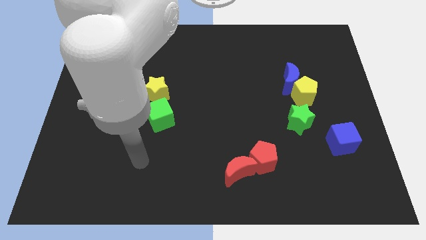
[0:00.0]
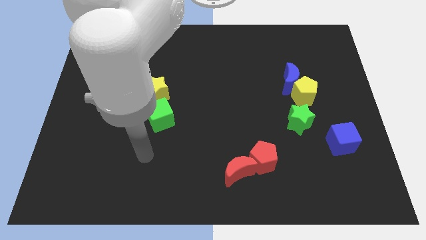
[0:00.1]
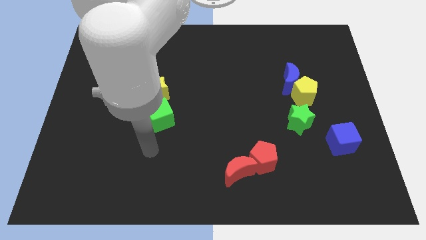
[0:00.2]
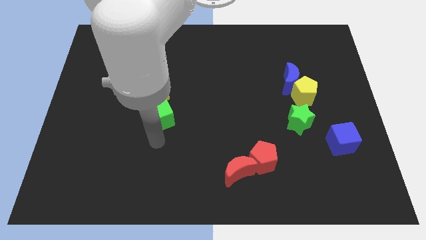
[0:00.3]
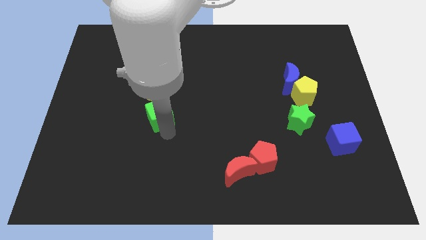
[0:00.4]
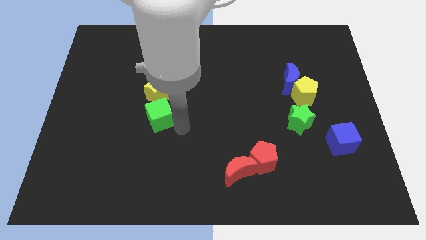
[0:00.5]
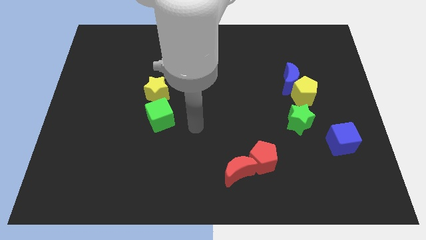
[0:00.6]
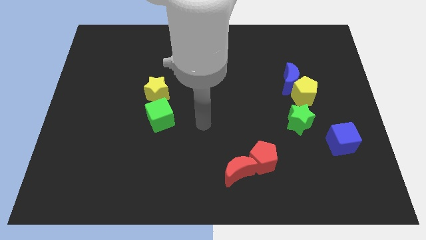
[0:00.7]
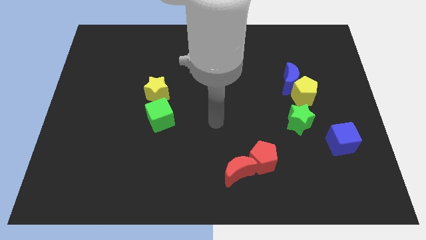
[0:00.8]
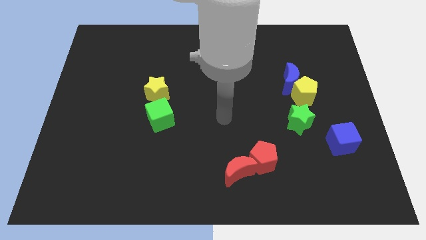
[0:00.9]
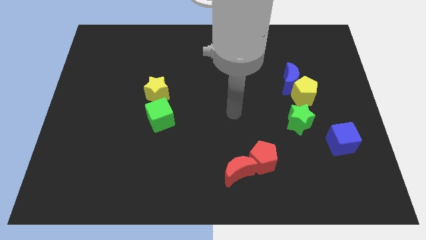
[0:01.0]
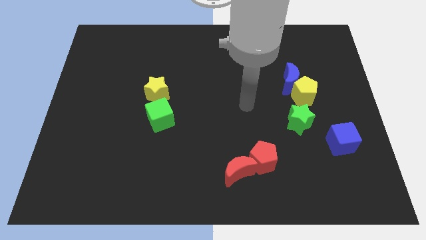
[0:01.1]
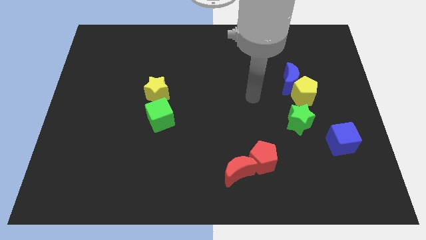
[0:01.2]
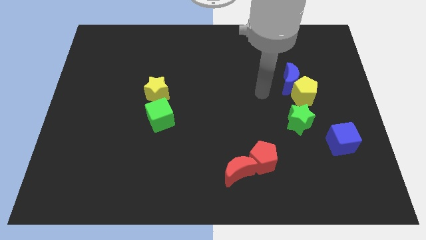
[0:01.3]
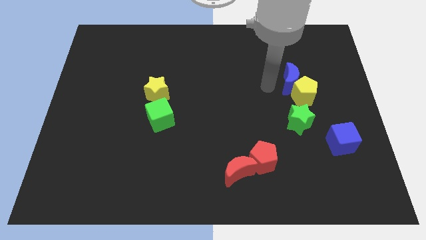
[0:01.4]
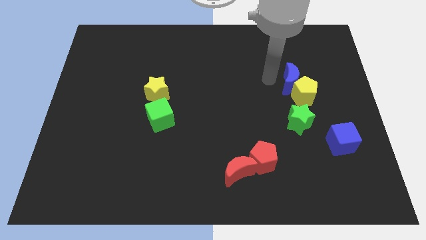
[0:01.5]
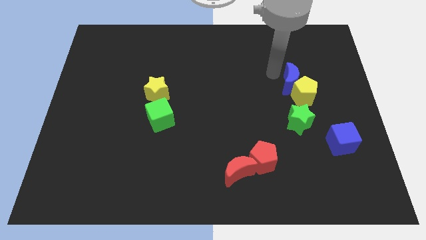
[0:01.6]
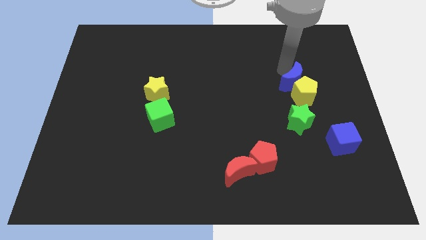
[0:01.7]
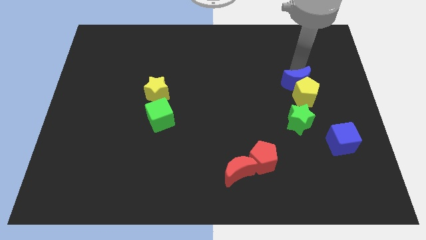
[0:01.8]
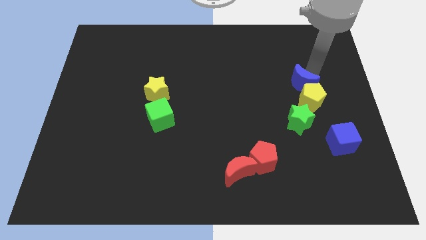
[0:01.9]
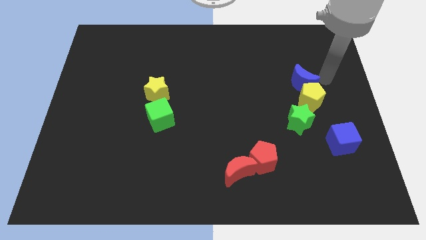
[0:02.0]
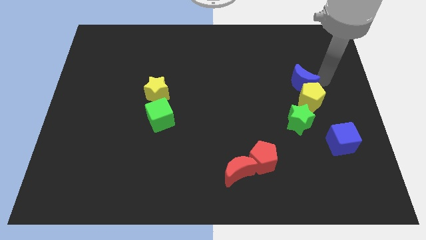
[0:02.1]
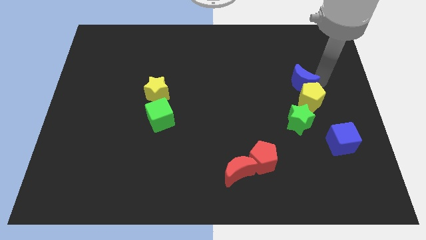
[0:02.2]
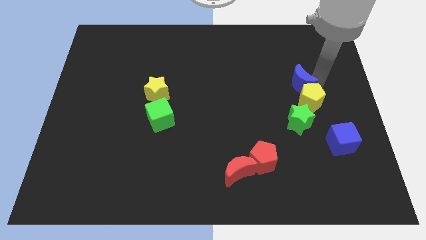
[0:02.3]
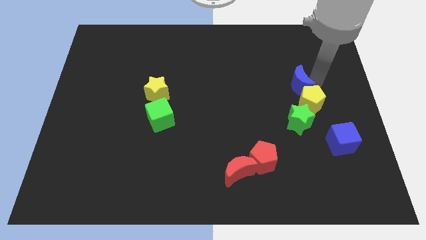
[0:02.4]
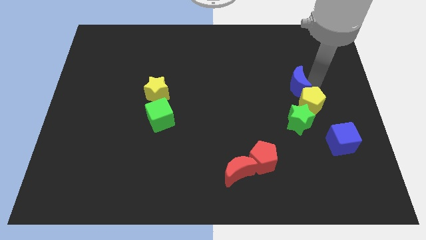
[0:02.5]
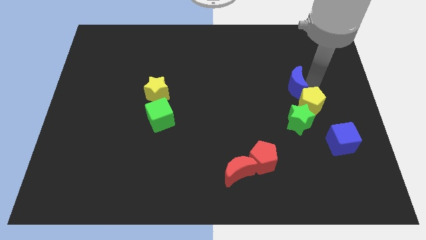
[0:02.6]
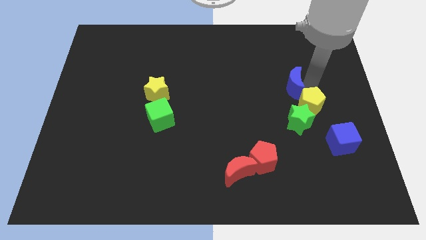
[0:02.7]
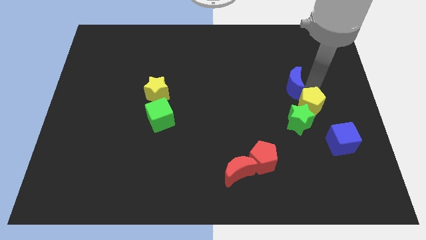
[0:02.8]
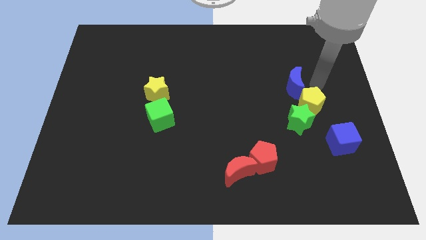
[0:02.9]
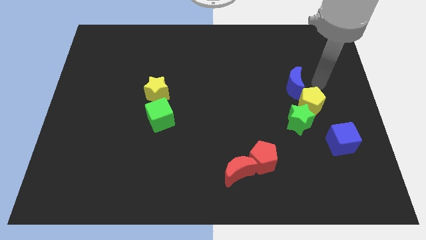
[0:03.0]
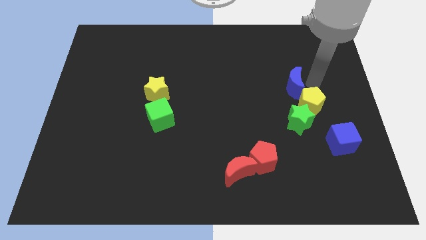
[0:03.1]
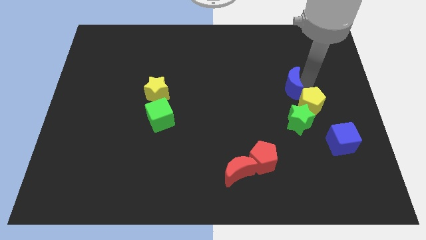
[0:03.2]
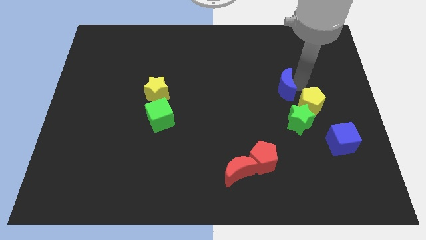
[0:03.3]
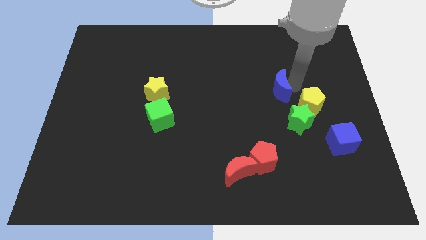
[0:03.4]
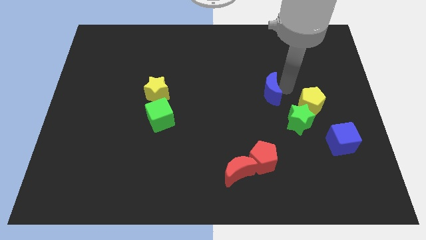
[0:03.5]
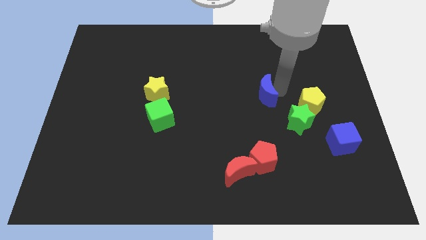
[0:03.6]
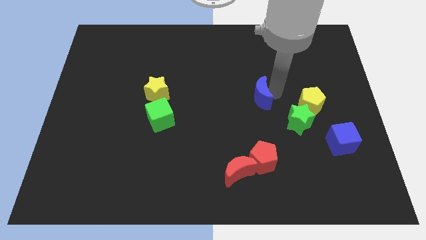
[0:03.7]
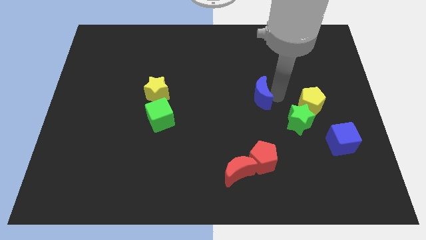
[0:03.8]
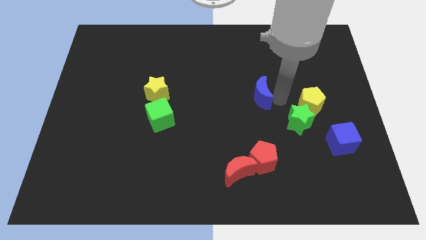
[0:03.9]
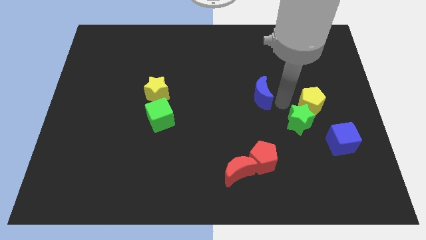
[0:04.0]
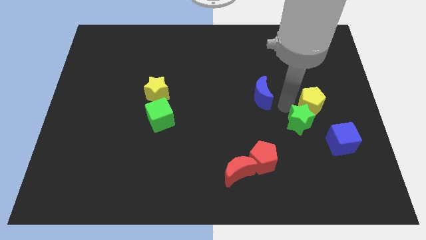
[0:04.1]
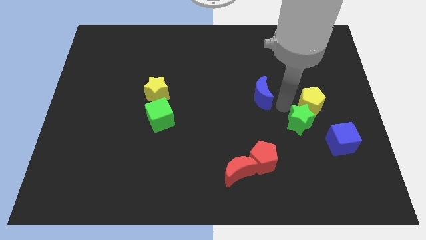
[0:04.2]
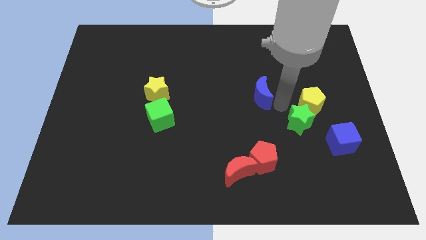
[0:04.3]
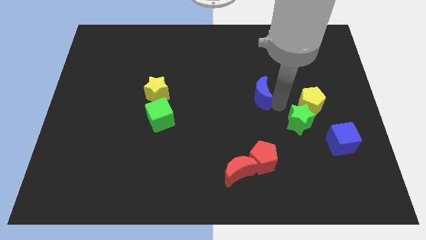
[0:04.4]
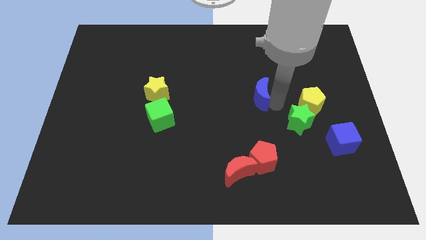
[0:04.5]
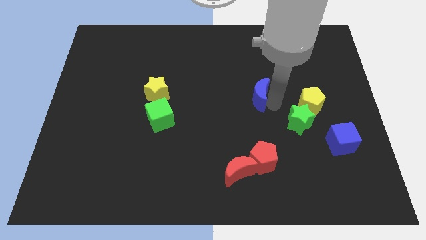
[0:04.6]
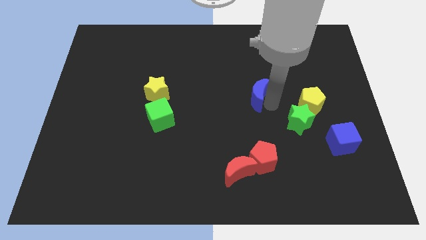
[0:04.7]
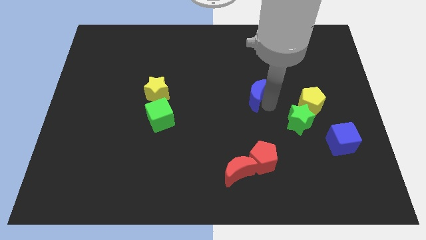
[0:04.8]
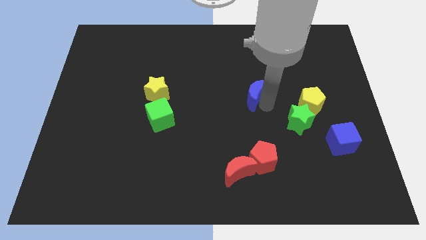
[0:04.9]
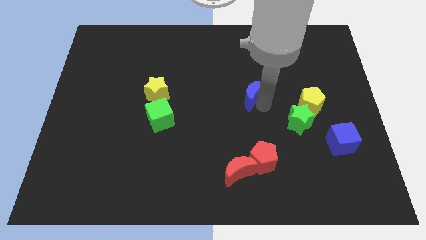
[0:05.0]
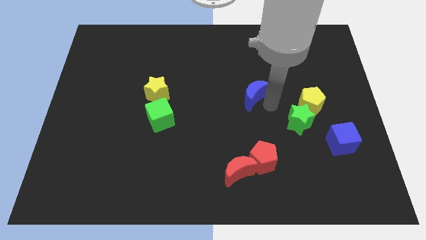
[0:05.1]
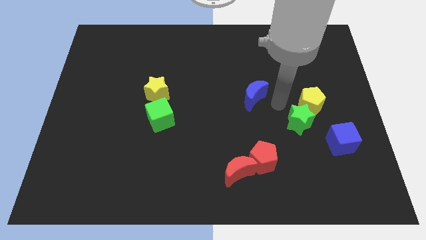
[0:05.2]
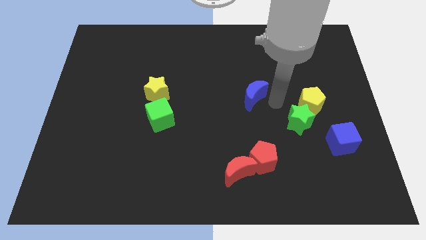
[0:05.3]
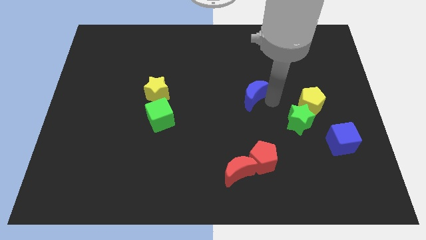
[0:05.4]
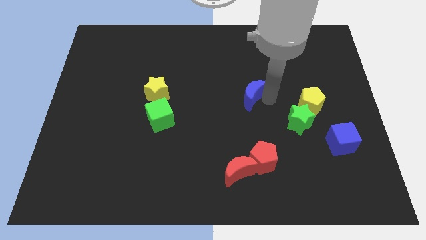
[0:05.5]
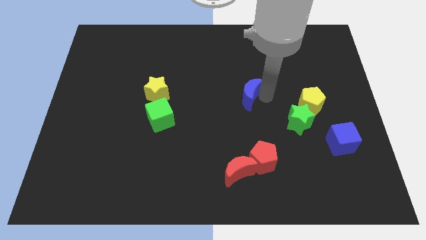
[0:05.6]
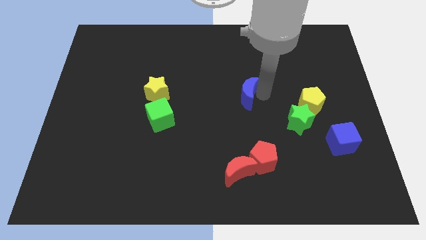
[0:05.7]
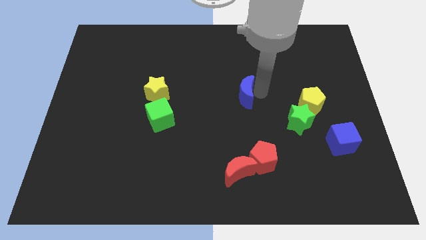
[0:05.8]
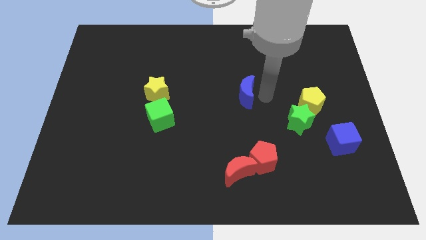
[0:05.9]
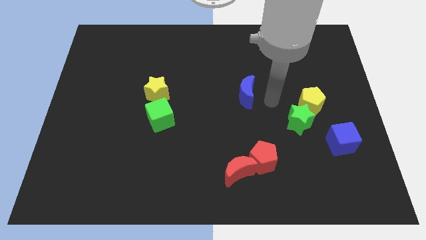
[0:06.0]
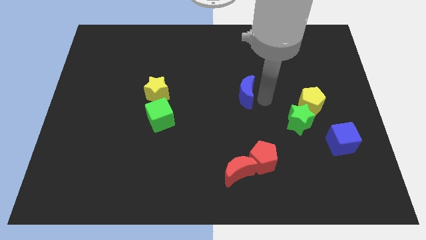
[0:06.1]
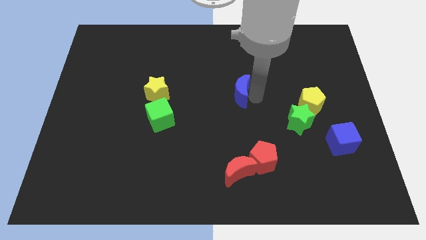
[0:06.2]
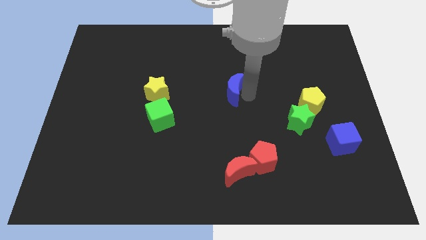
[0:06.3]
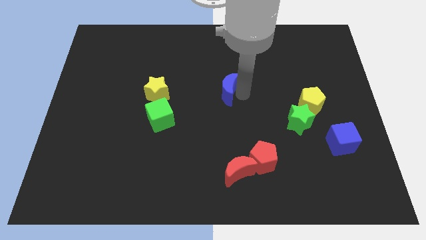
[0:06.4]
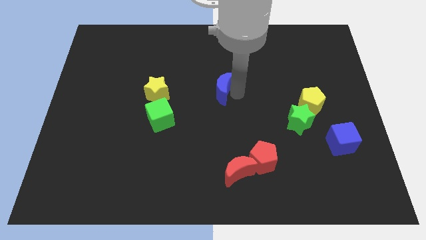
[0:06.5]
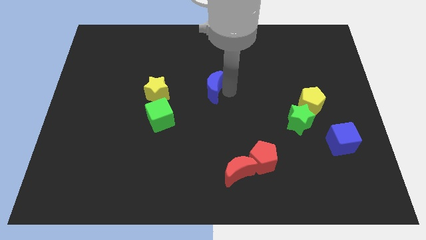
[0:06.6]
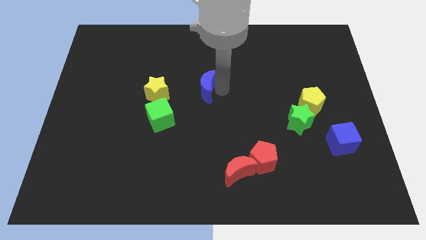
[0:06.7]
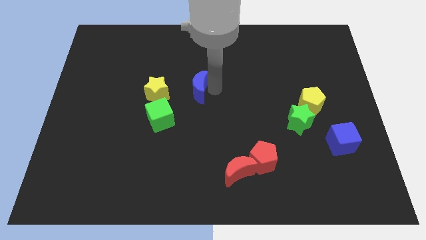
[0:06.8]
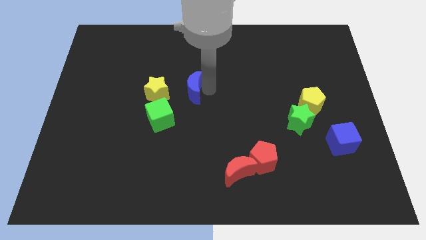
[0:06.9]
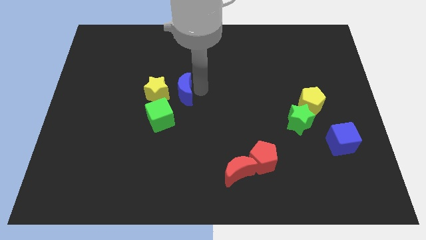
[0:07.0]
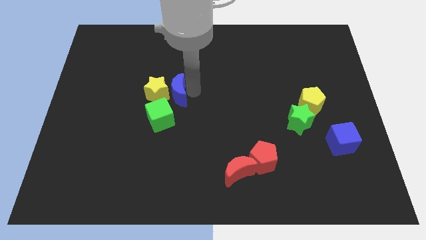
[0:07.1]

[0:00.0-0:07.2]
put the blue moon towards the yellow star

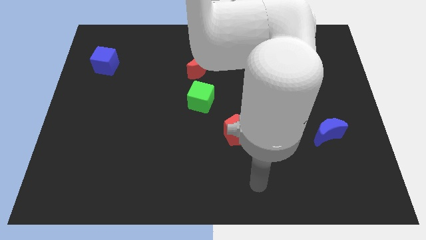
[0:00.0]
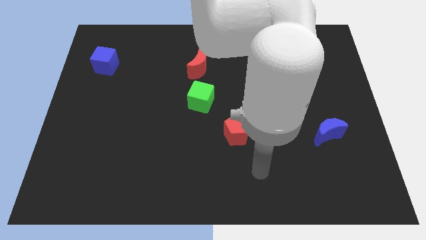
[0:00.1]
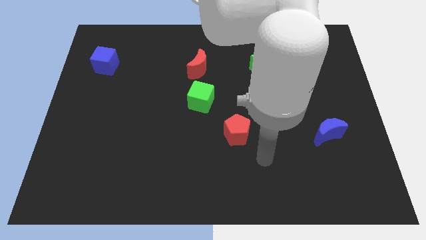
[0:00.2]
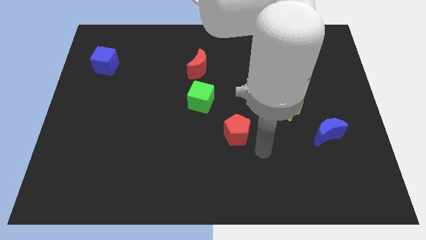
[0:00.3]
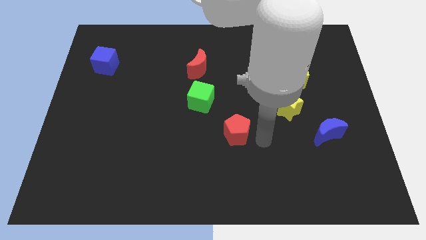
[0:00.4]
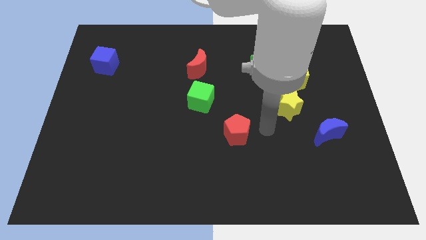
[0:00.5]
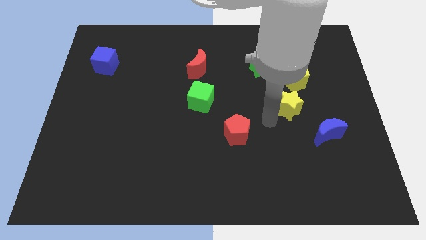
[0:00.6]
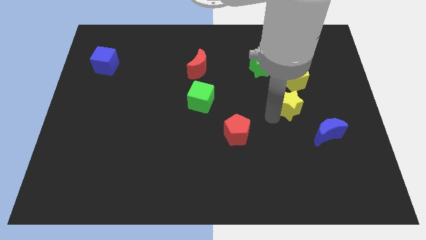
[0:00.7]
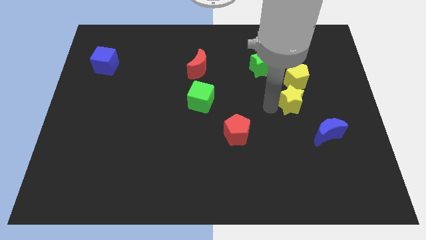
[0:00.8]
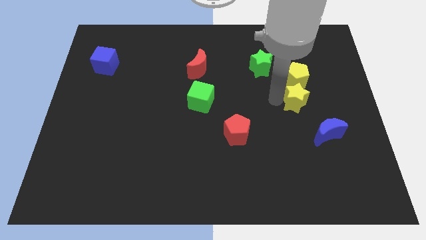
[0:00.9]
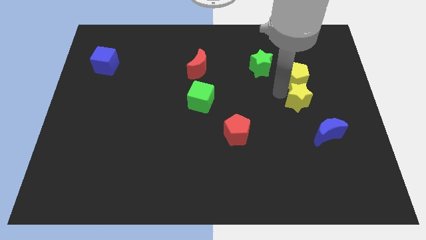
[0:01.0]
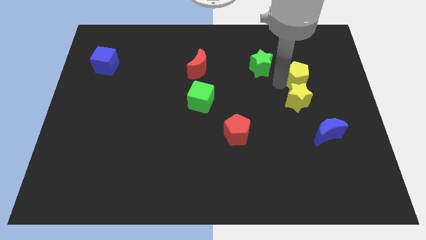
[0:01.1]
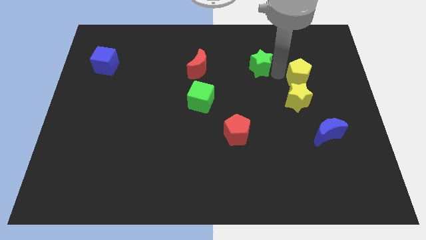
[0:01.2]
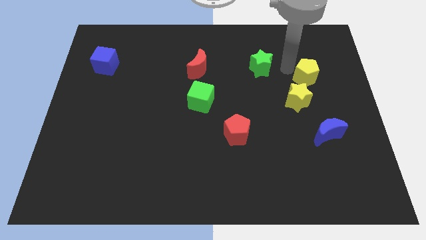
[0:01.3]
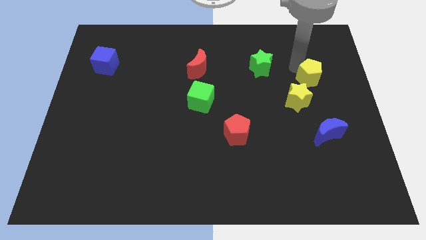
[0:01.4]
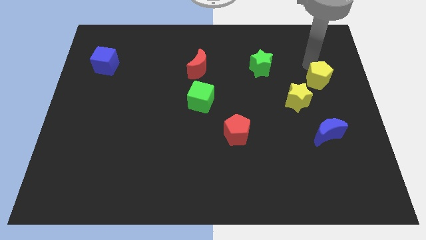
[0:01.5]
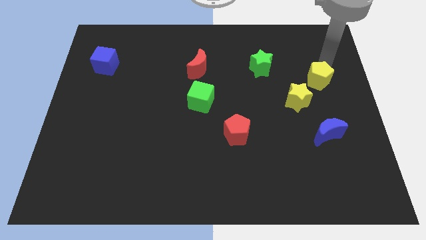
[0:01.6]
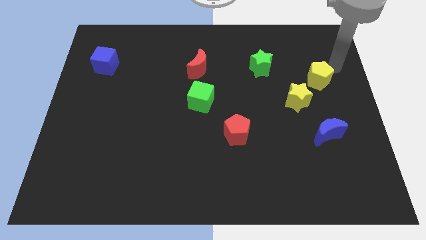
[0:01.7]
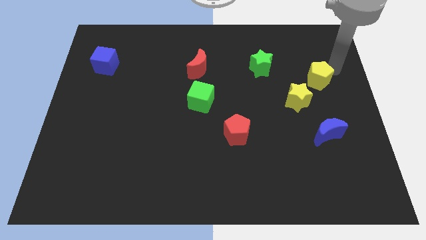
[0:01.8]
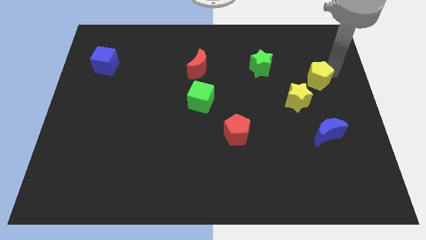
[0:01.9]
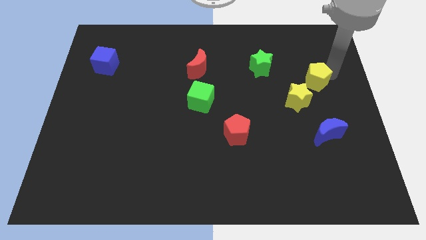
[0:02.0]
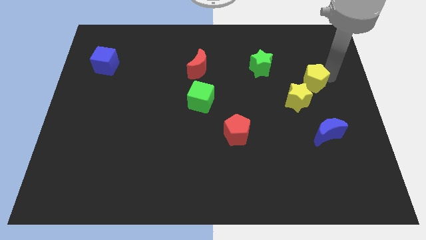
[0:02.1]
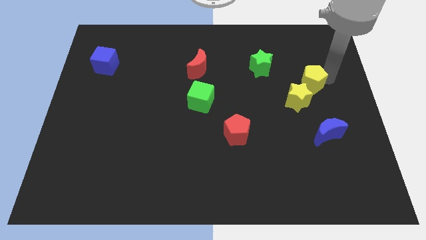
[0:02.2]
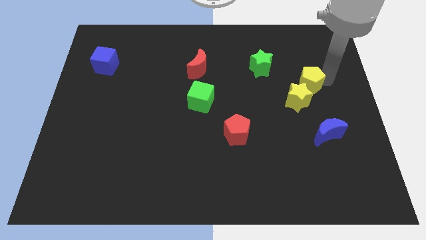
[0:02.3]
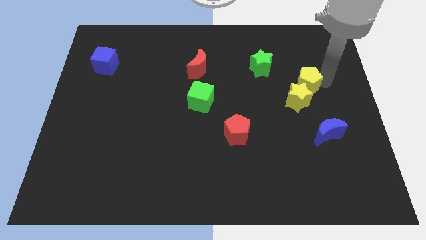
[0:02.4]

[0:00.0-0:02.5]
slide the yellow pentagon towards the yellow star
